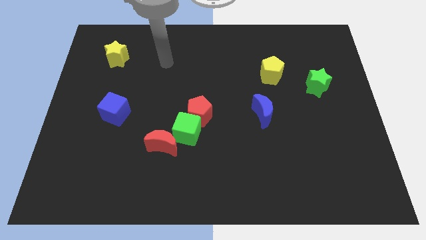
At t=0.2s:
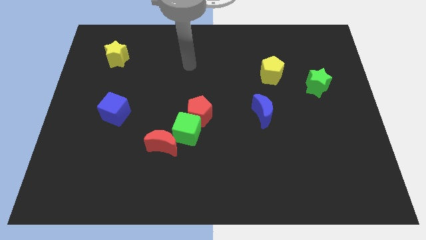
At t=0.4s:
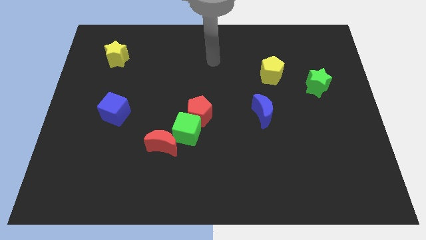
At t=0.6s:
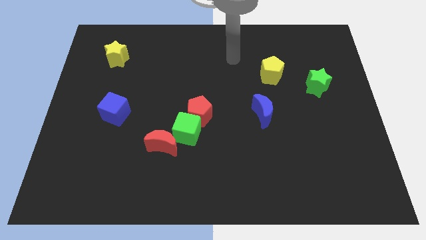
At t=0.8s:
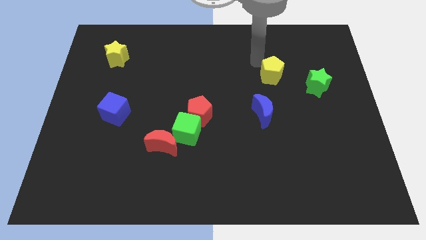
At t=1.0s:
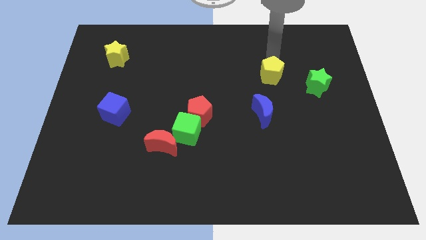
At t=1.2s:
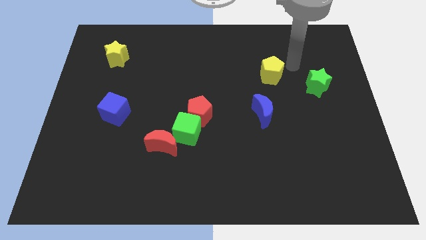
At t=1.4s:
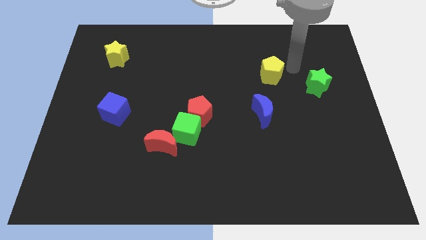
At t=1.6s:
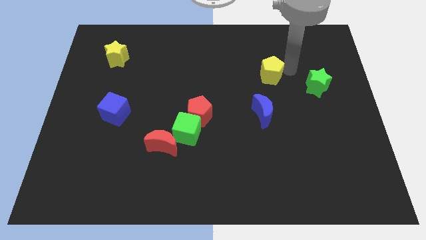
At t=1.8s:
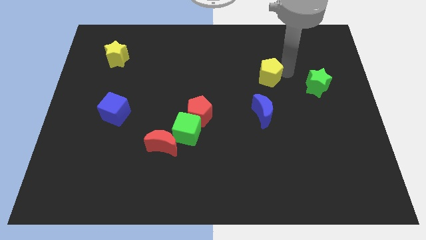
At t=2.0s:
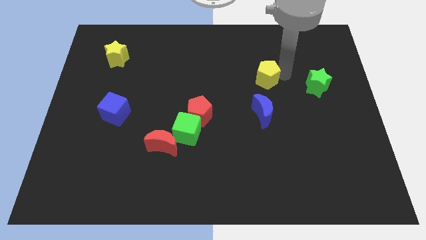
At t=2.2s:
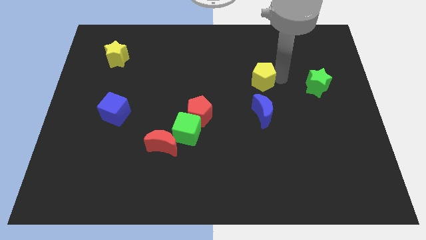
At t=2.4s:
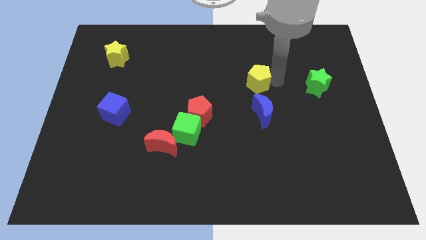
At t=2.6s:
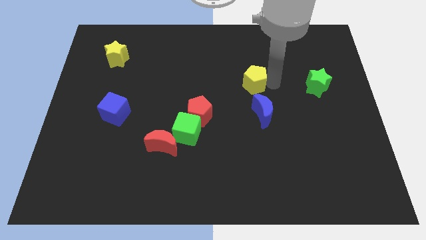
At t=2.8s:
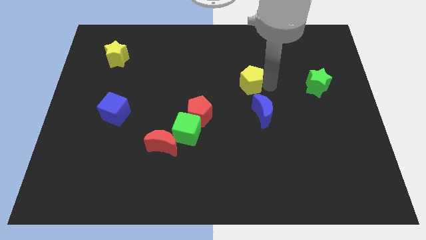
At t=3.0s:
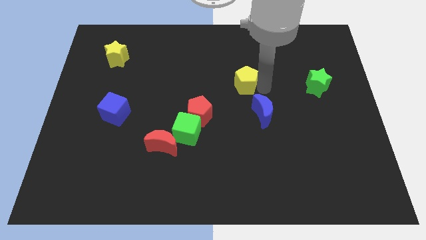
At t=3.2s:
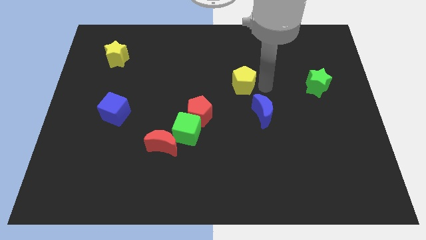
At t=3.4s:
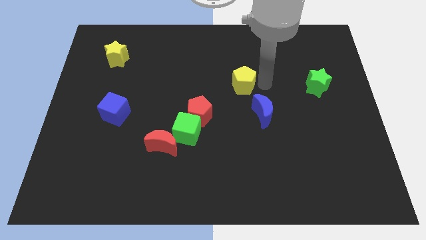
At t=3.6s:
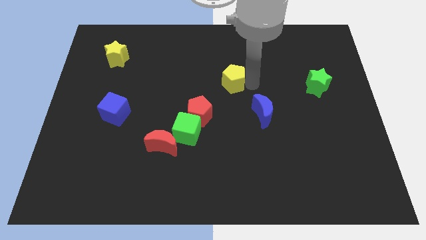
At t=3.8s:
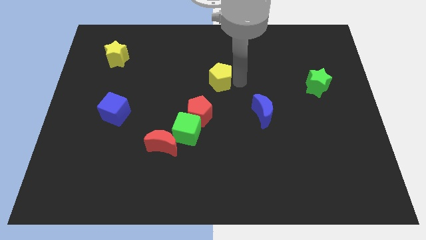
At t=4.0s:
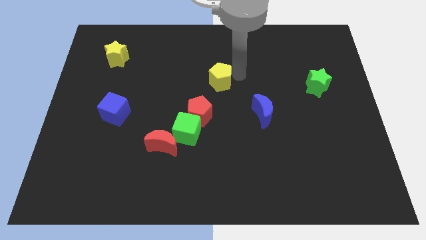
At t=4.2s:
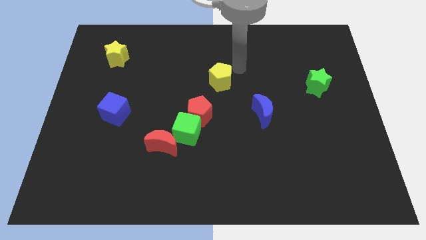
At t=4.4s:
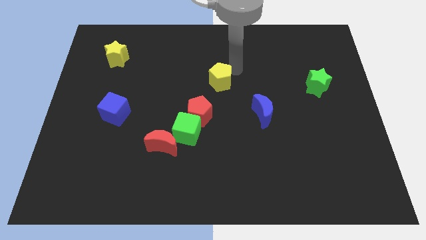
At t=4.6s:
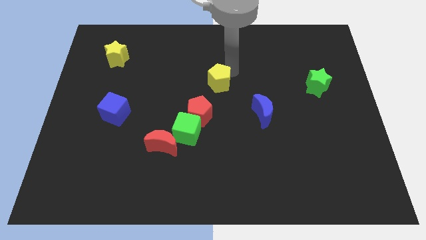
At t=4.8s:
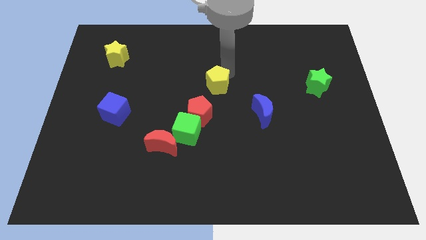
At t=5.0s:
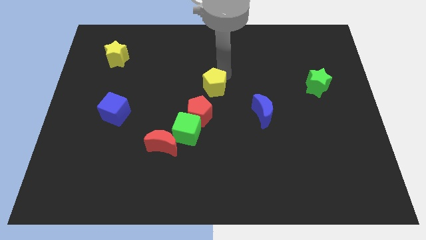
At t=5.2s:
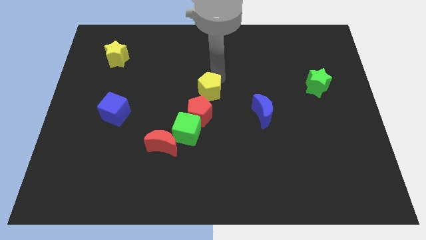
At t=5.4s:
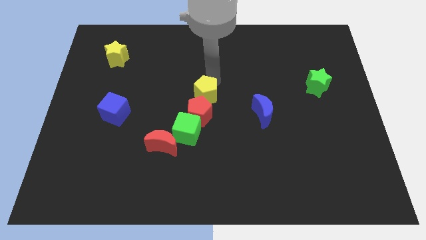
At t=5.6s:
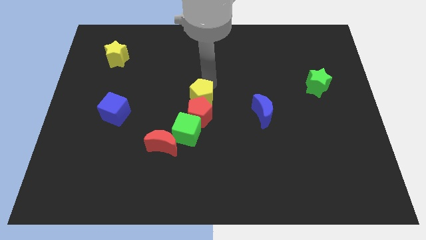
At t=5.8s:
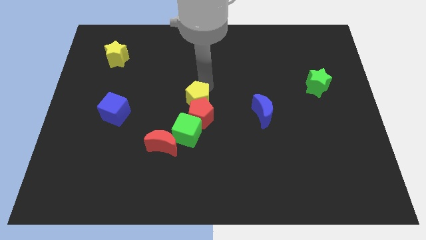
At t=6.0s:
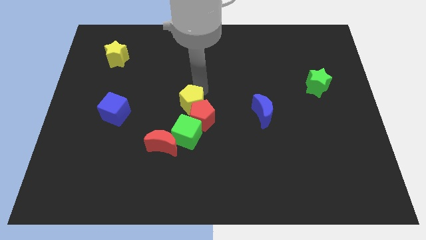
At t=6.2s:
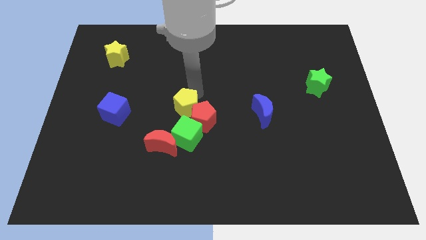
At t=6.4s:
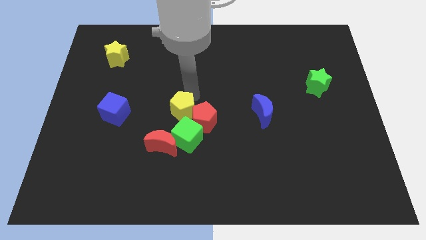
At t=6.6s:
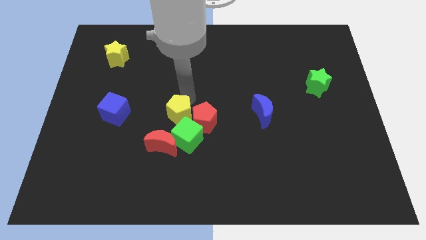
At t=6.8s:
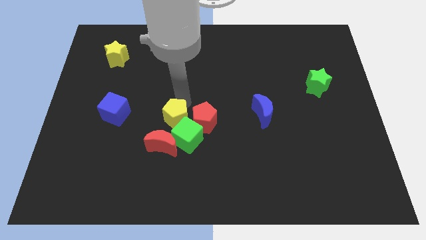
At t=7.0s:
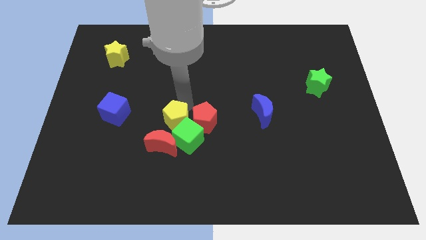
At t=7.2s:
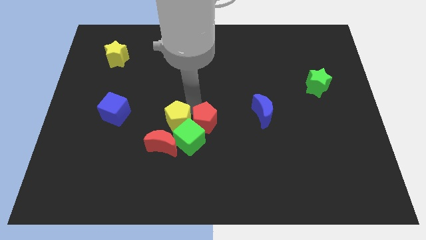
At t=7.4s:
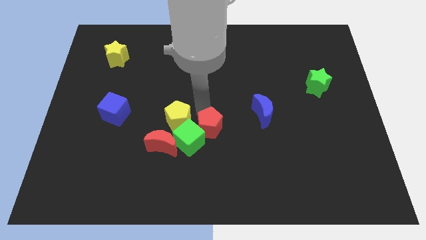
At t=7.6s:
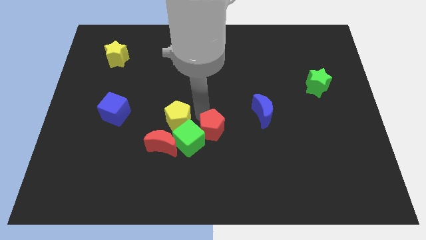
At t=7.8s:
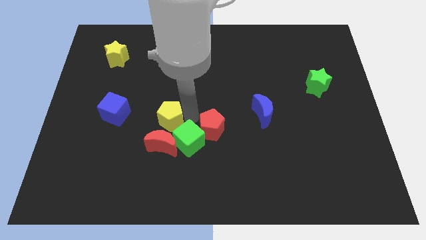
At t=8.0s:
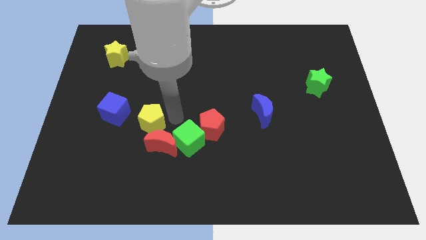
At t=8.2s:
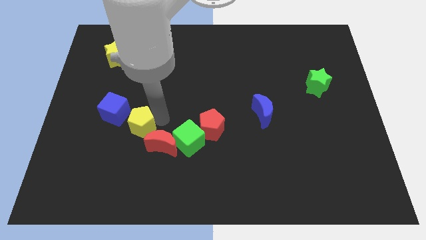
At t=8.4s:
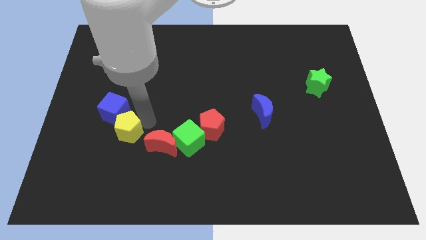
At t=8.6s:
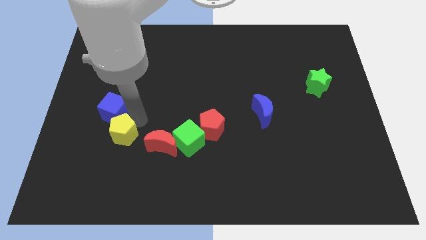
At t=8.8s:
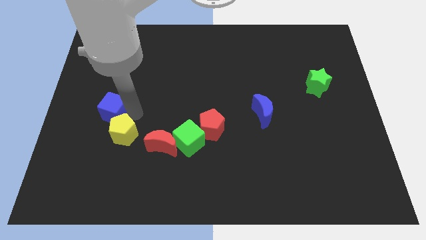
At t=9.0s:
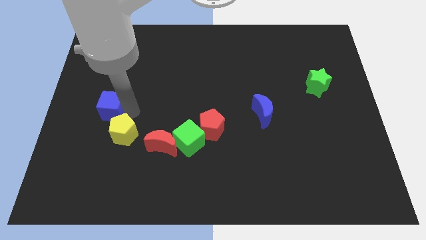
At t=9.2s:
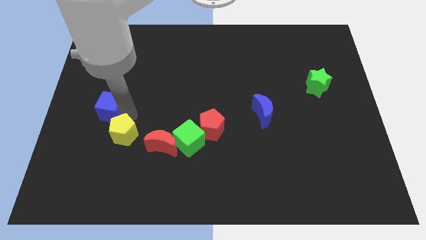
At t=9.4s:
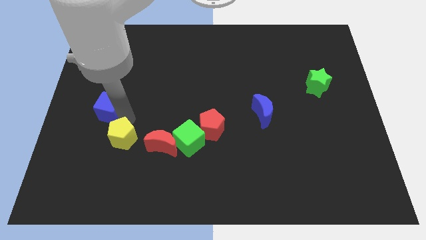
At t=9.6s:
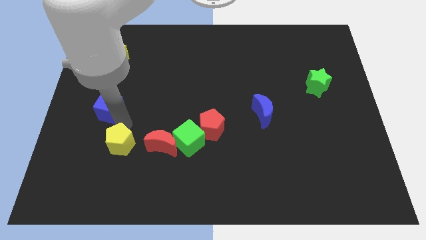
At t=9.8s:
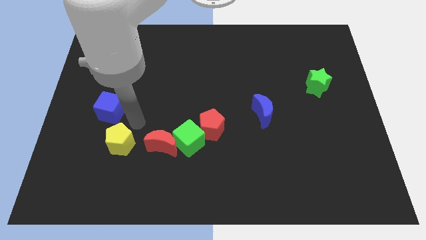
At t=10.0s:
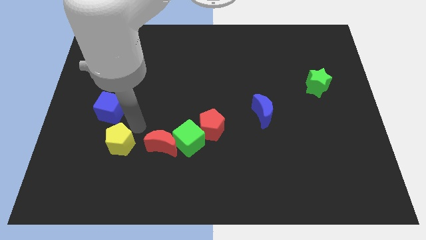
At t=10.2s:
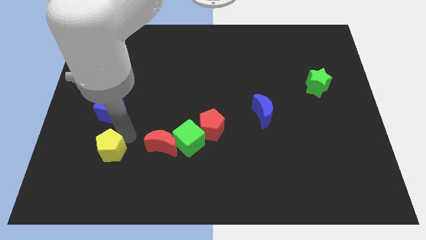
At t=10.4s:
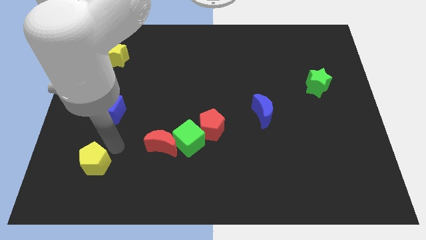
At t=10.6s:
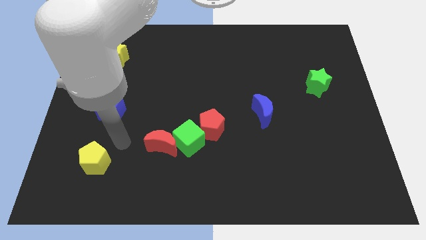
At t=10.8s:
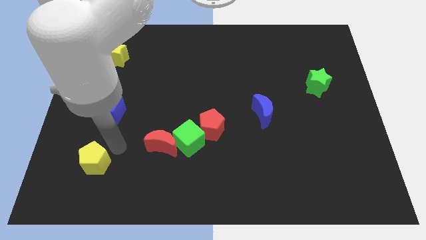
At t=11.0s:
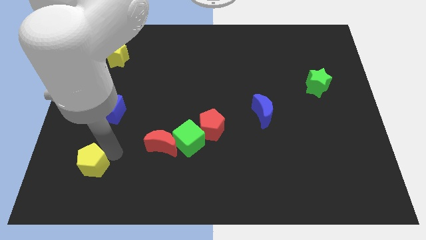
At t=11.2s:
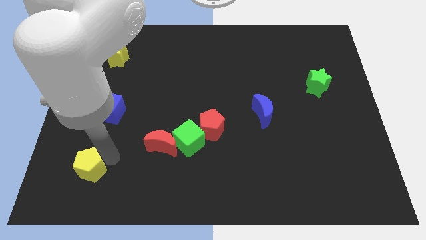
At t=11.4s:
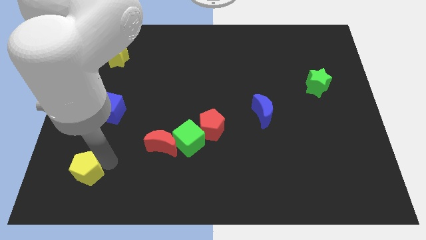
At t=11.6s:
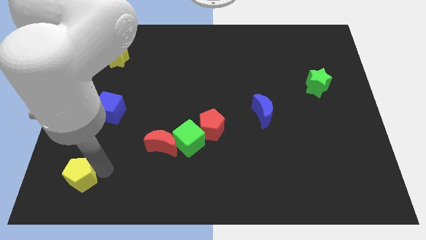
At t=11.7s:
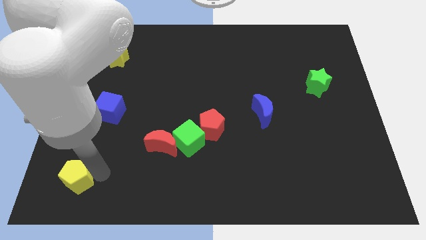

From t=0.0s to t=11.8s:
slide the yellow pentagon to the bottom left corner

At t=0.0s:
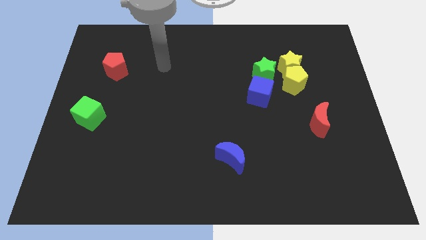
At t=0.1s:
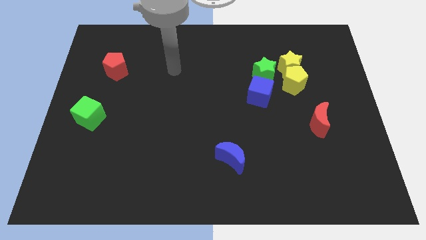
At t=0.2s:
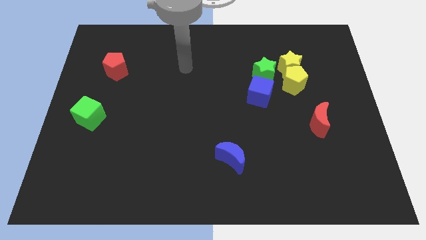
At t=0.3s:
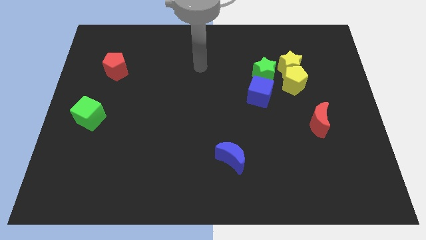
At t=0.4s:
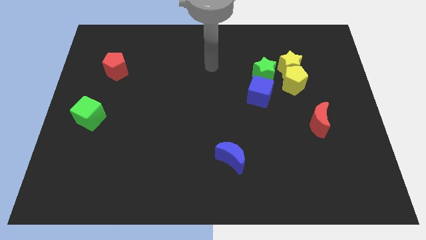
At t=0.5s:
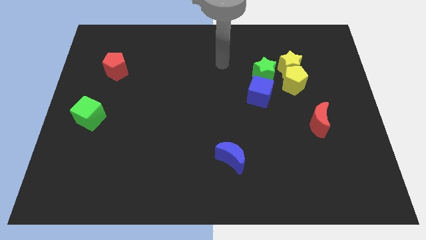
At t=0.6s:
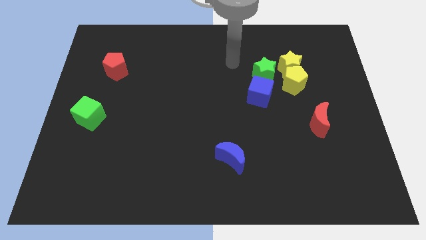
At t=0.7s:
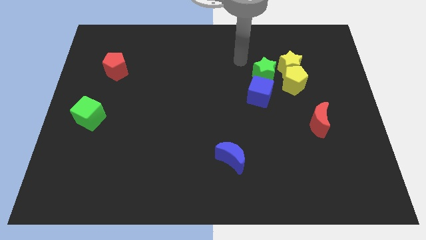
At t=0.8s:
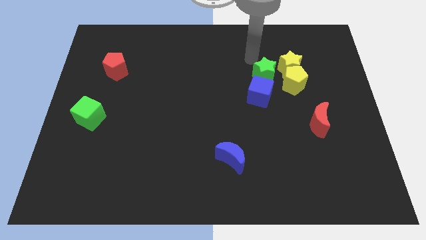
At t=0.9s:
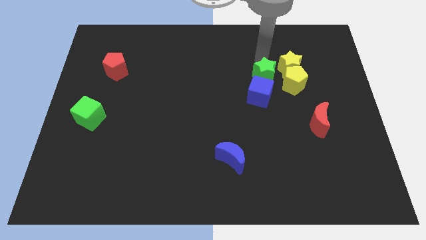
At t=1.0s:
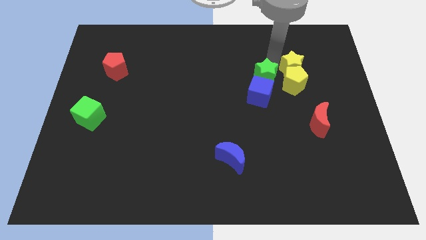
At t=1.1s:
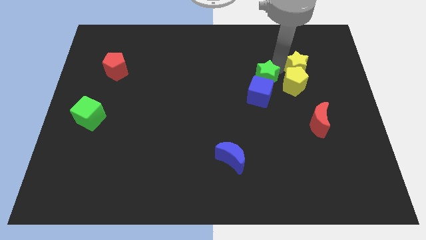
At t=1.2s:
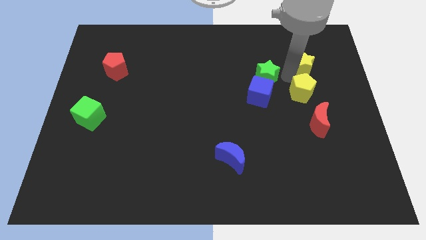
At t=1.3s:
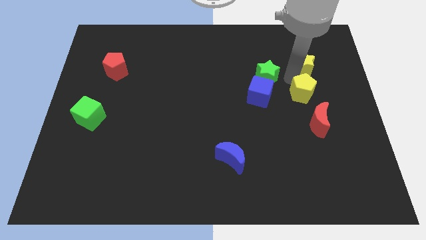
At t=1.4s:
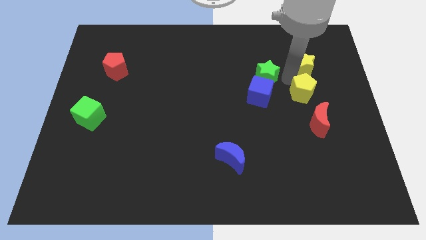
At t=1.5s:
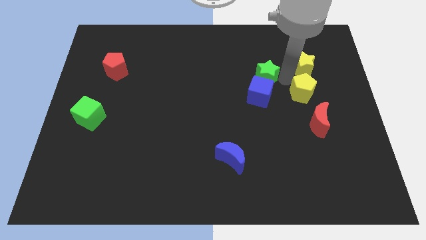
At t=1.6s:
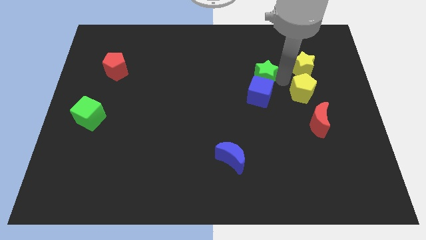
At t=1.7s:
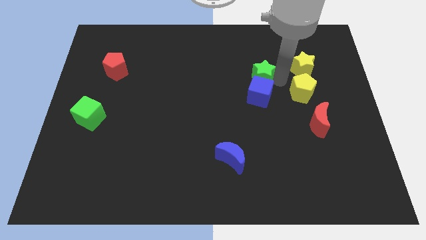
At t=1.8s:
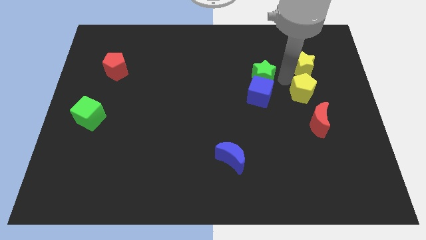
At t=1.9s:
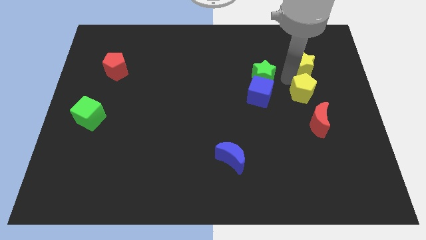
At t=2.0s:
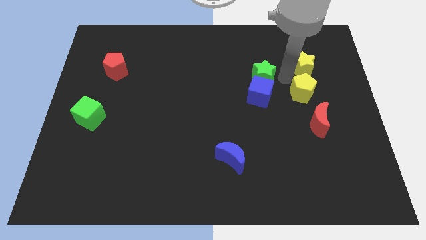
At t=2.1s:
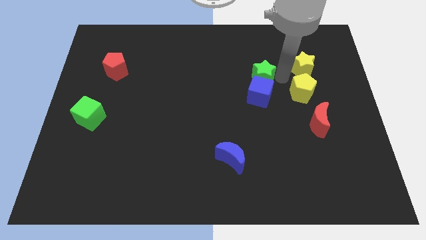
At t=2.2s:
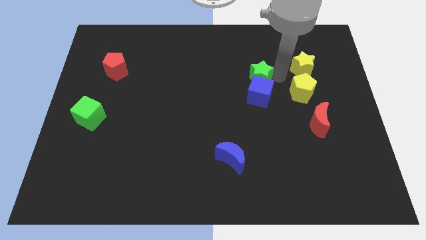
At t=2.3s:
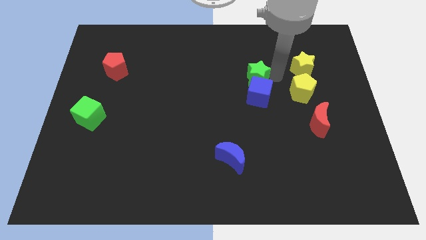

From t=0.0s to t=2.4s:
move the green star to the center
